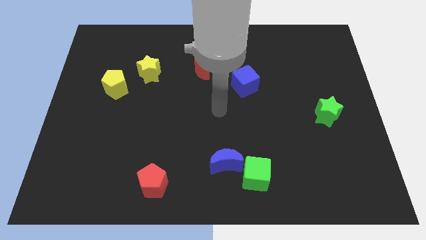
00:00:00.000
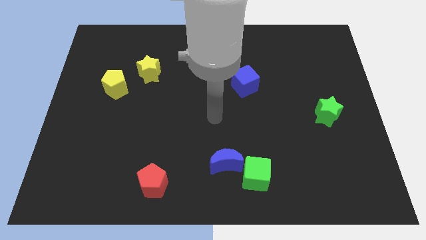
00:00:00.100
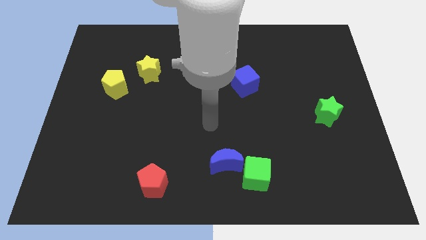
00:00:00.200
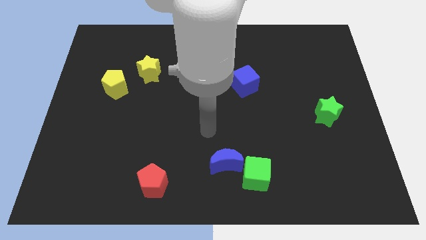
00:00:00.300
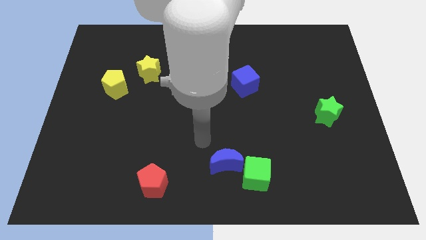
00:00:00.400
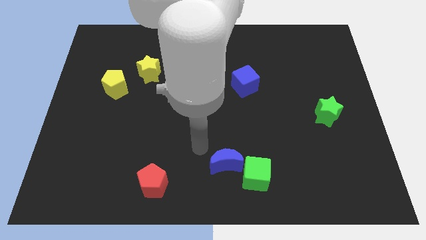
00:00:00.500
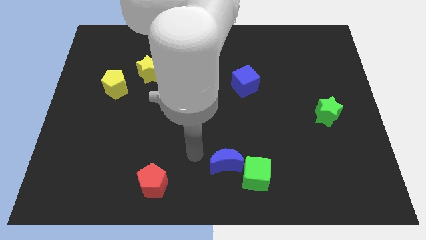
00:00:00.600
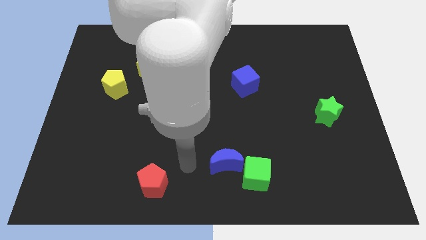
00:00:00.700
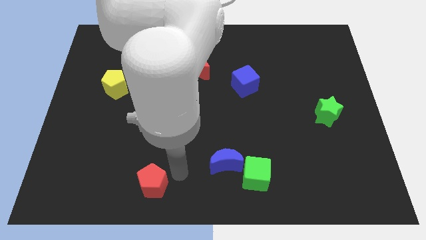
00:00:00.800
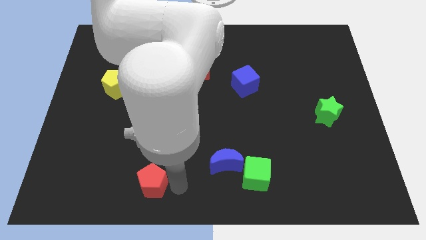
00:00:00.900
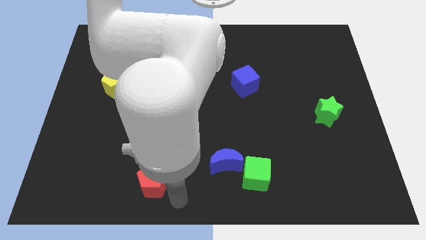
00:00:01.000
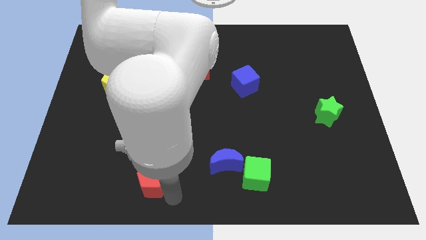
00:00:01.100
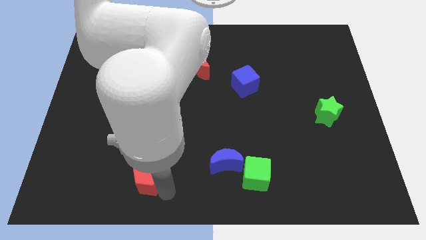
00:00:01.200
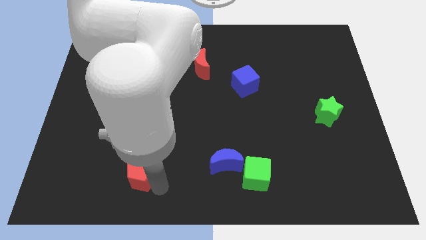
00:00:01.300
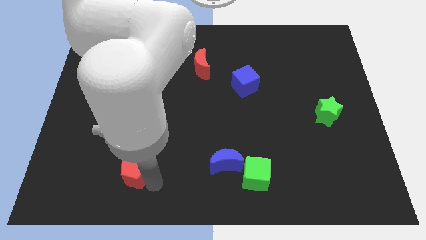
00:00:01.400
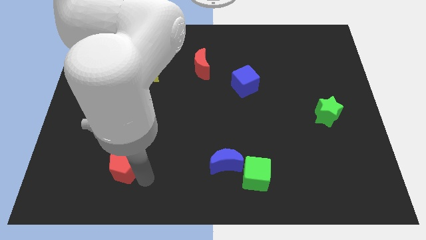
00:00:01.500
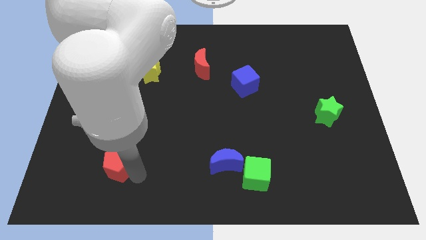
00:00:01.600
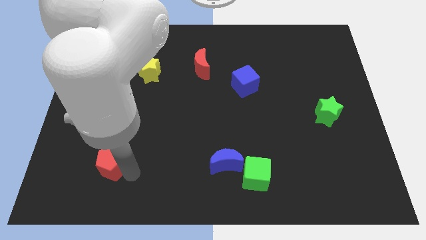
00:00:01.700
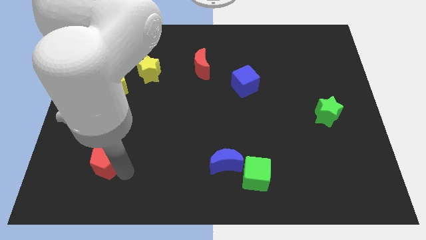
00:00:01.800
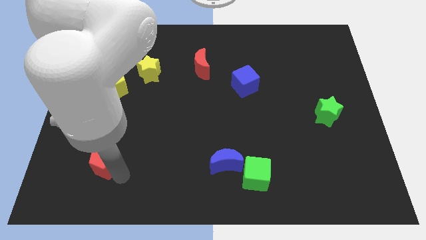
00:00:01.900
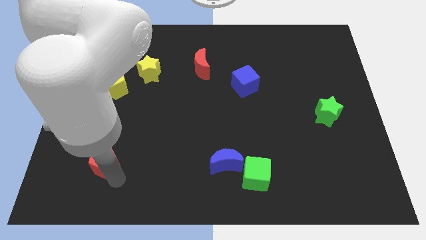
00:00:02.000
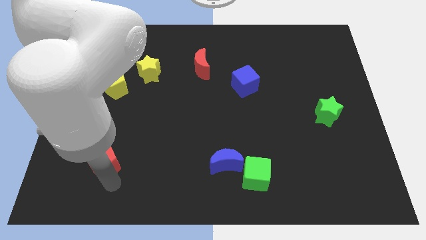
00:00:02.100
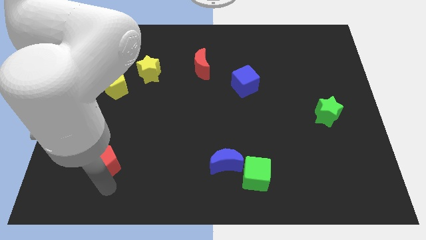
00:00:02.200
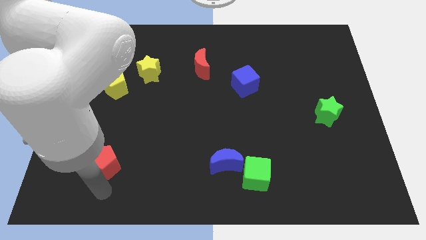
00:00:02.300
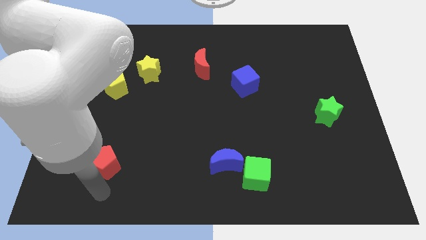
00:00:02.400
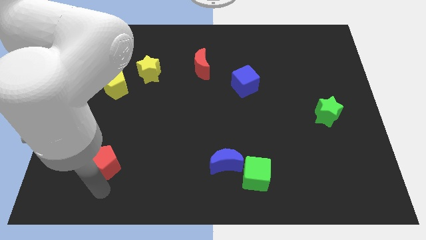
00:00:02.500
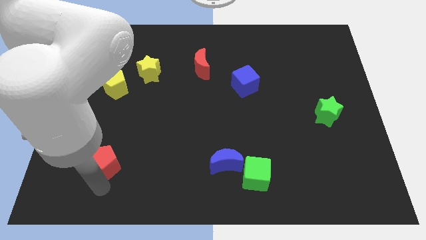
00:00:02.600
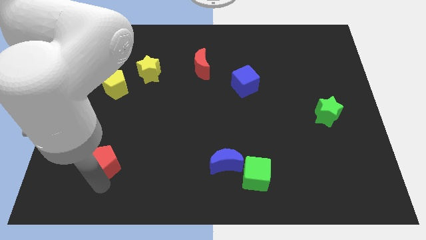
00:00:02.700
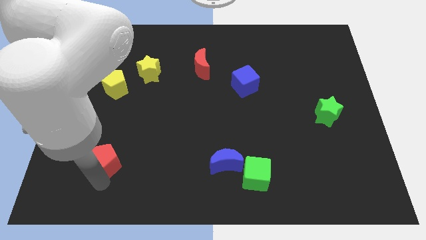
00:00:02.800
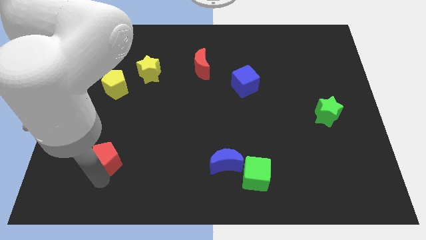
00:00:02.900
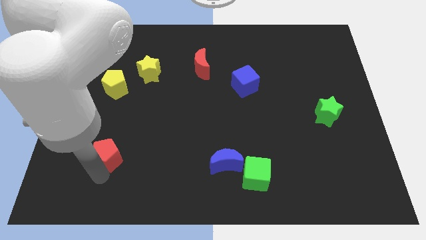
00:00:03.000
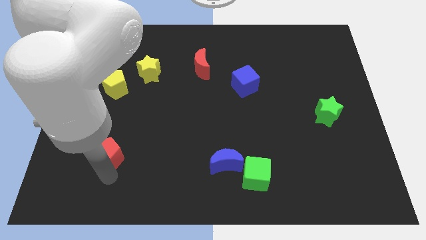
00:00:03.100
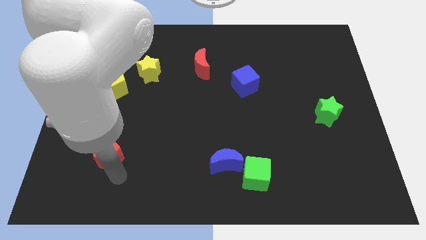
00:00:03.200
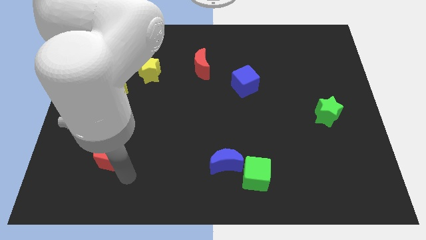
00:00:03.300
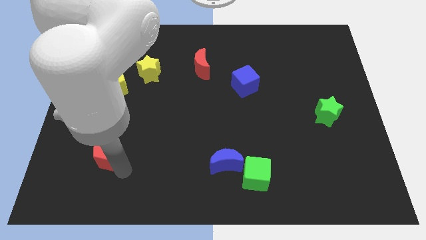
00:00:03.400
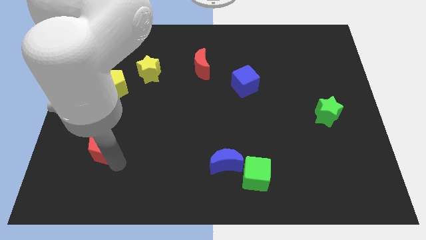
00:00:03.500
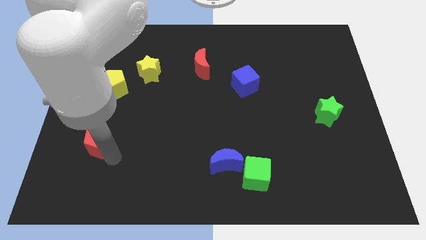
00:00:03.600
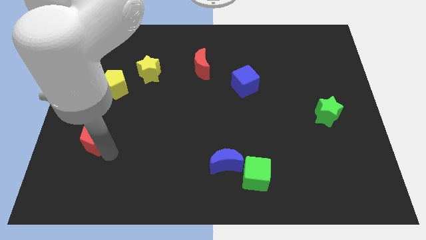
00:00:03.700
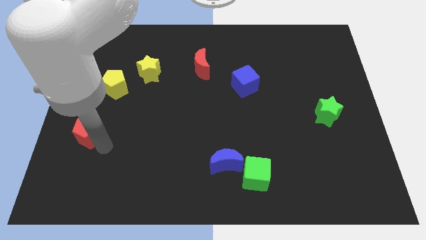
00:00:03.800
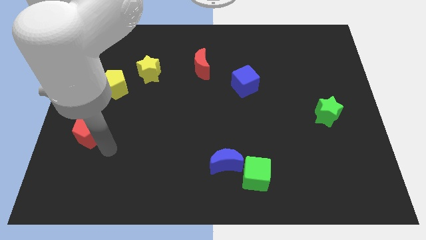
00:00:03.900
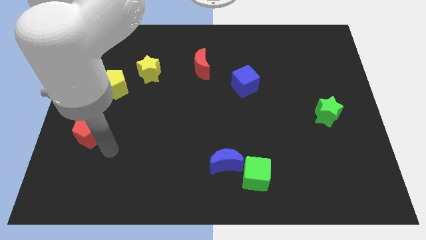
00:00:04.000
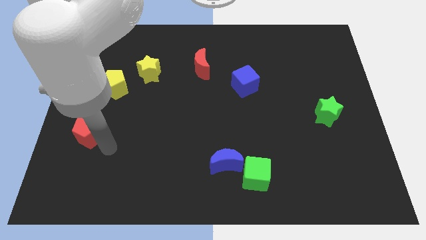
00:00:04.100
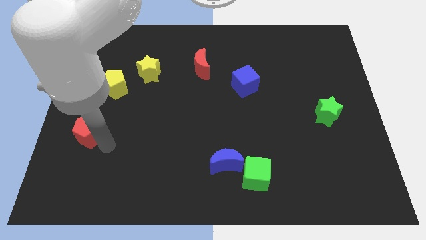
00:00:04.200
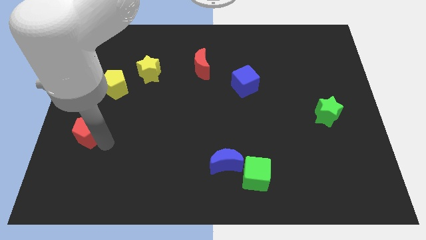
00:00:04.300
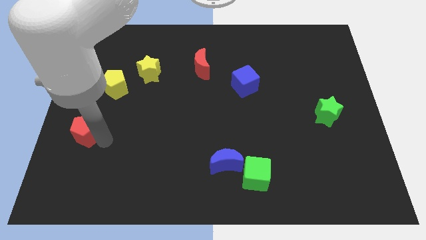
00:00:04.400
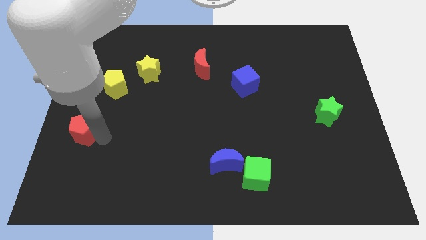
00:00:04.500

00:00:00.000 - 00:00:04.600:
move the red pentagon to the left side

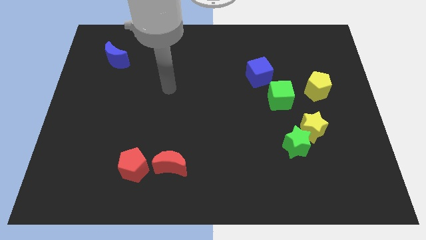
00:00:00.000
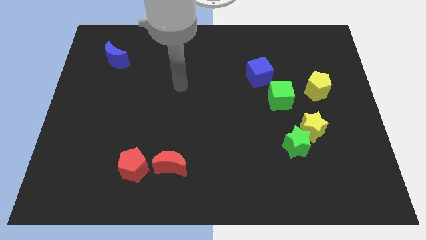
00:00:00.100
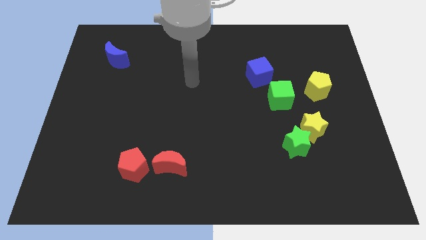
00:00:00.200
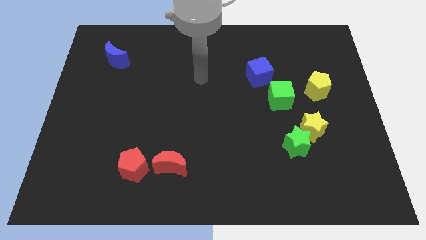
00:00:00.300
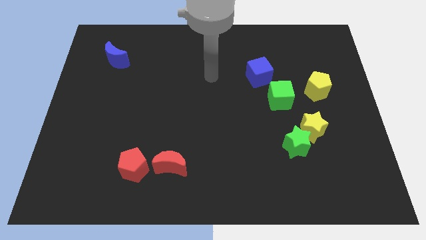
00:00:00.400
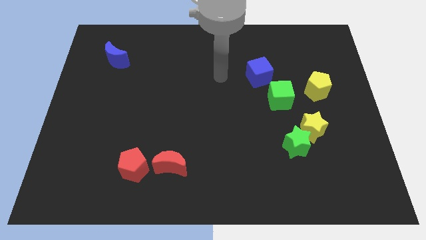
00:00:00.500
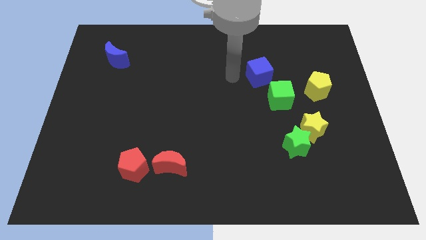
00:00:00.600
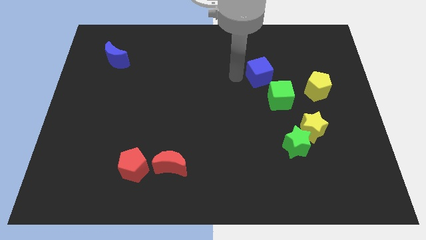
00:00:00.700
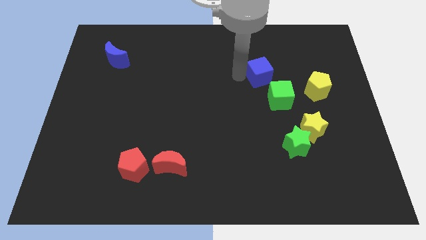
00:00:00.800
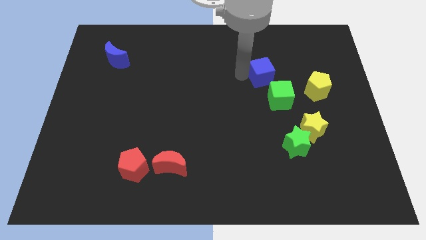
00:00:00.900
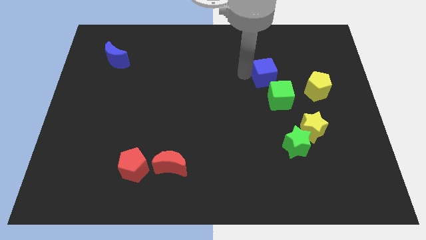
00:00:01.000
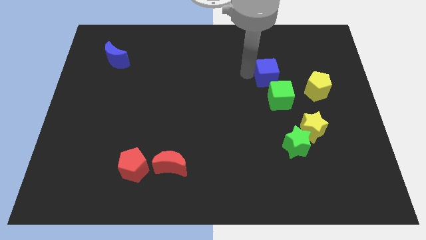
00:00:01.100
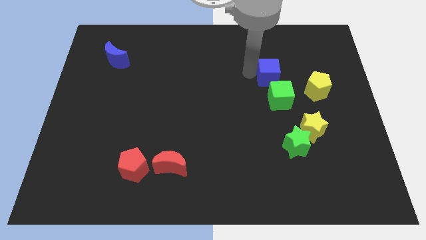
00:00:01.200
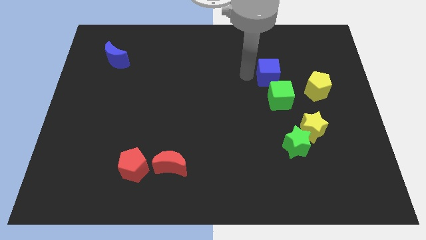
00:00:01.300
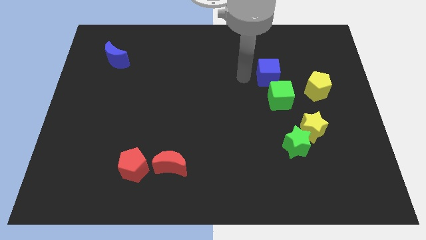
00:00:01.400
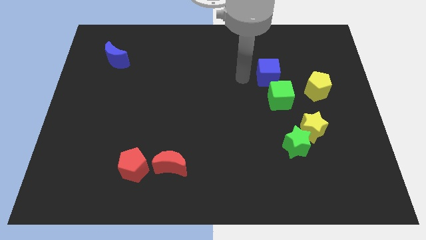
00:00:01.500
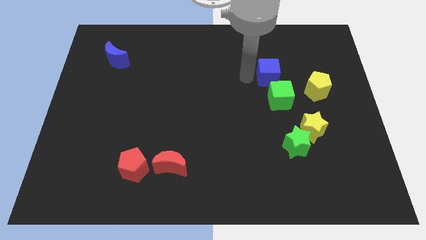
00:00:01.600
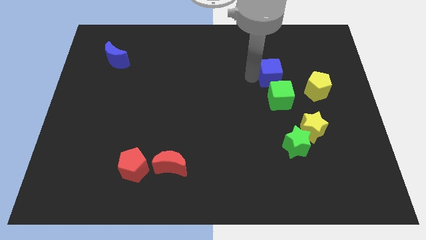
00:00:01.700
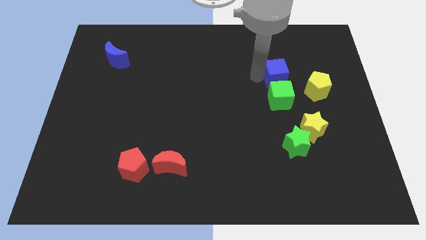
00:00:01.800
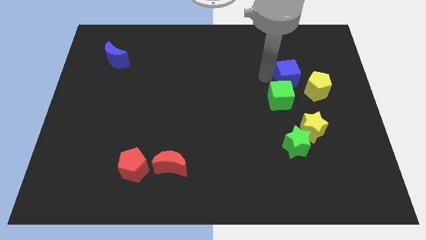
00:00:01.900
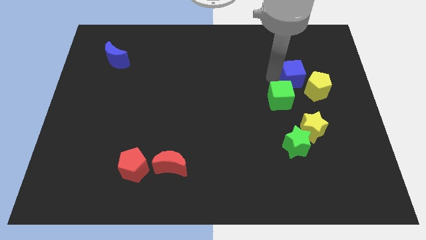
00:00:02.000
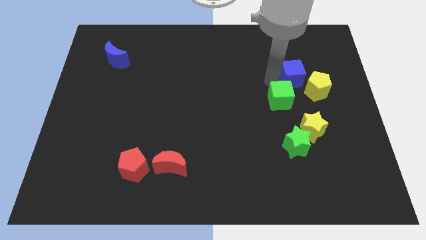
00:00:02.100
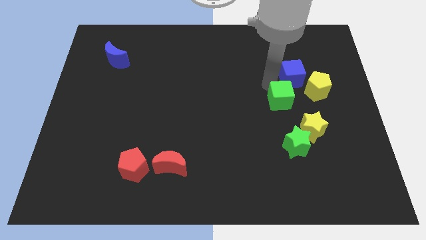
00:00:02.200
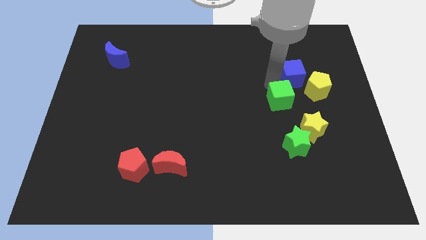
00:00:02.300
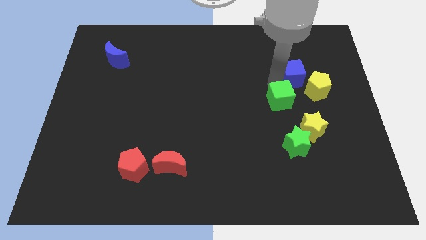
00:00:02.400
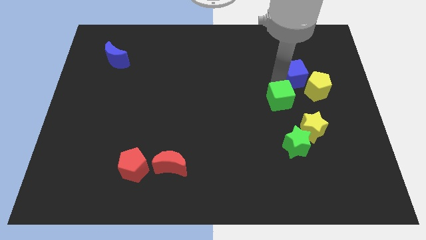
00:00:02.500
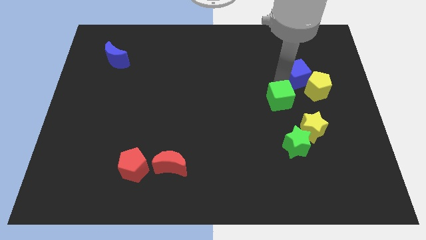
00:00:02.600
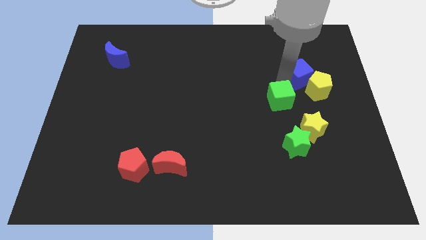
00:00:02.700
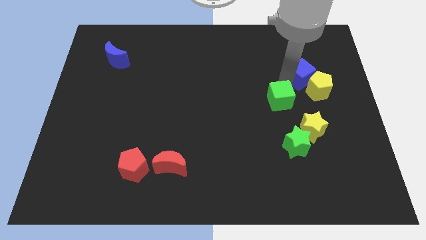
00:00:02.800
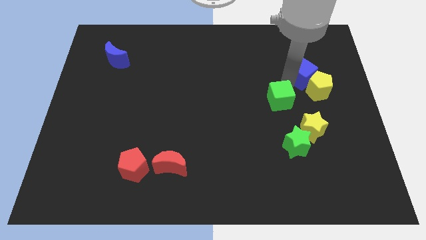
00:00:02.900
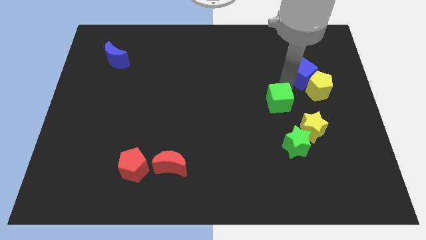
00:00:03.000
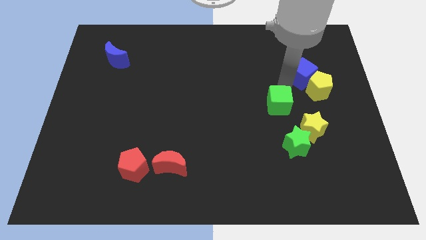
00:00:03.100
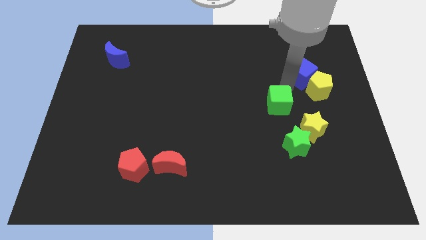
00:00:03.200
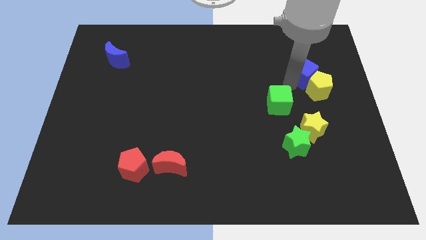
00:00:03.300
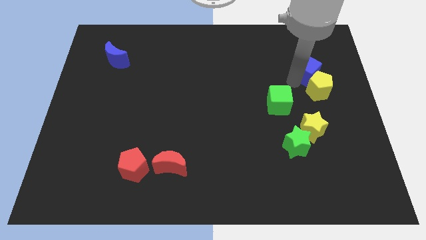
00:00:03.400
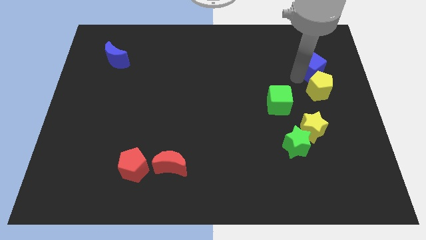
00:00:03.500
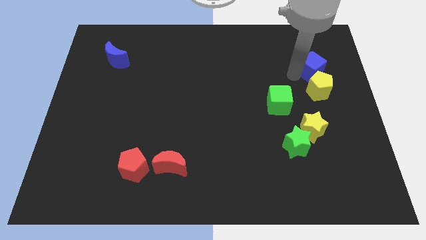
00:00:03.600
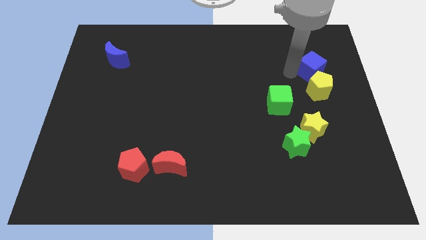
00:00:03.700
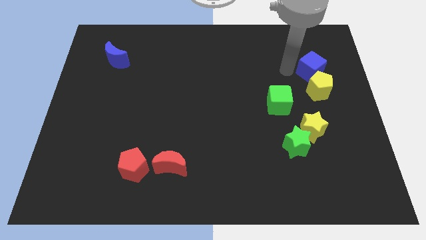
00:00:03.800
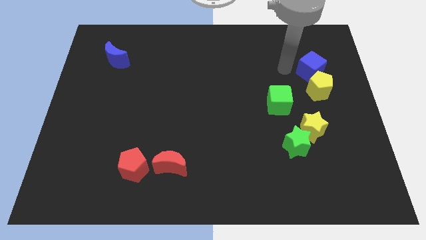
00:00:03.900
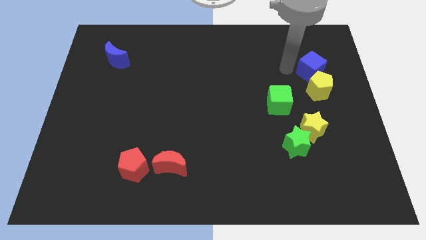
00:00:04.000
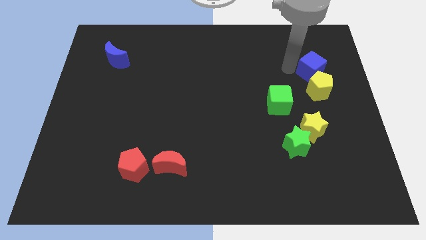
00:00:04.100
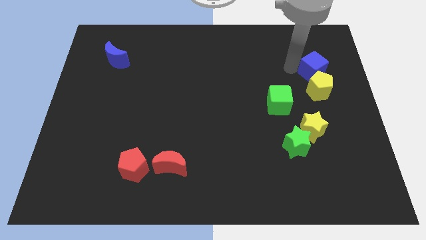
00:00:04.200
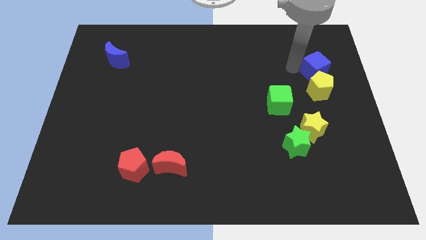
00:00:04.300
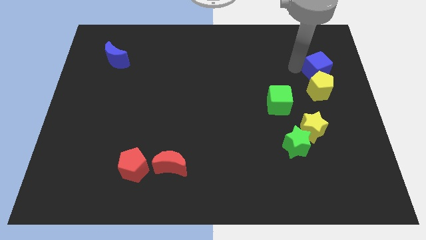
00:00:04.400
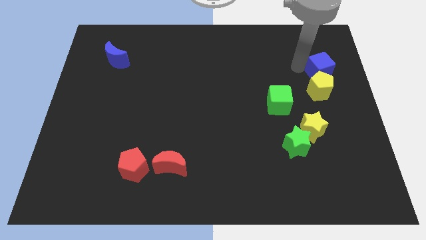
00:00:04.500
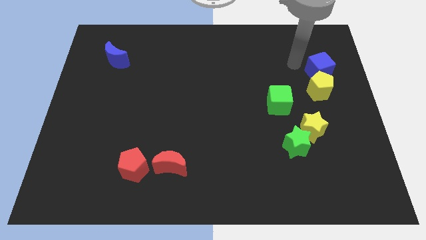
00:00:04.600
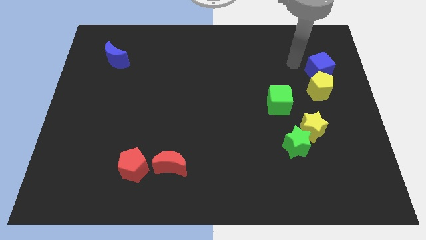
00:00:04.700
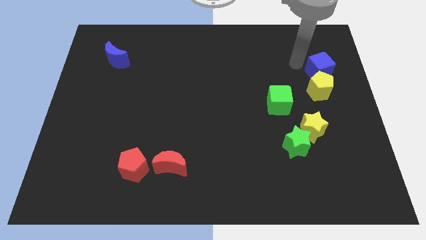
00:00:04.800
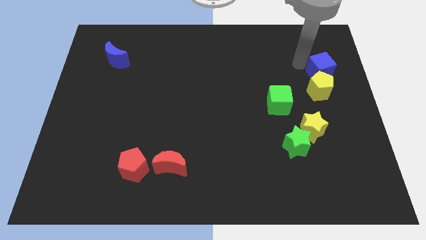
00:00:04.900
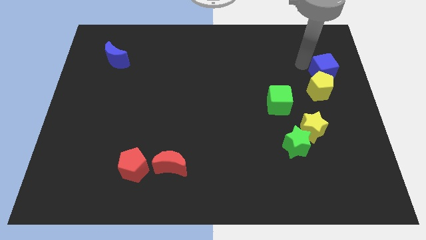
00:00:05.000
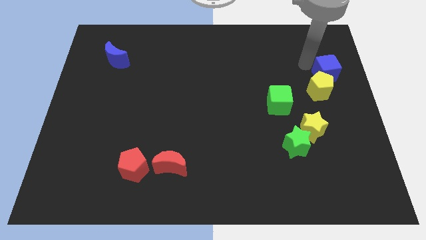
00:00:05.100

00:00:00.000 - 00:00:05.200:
put the blue cube to the center right
